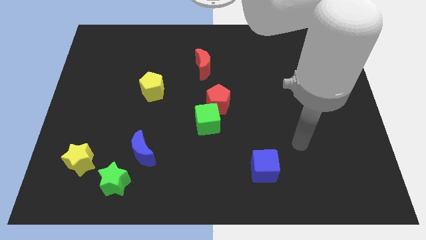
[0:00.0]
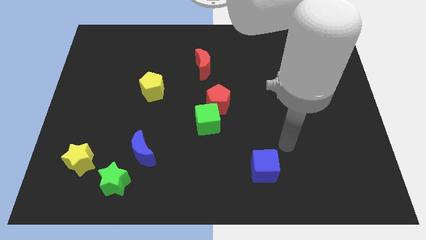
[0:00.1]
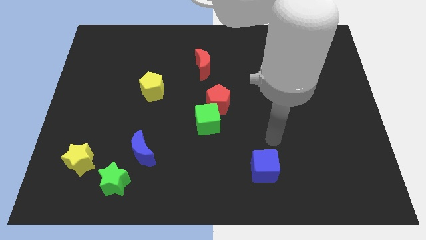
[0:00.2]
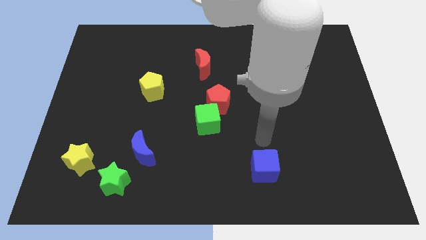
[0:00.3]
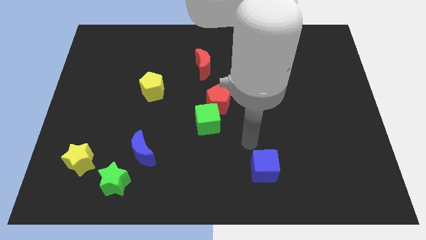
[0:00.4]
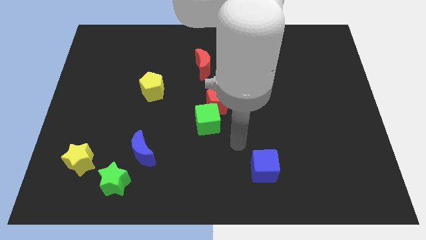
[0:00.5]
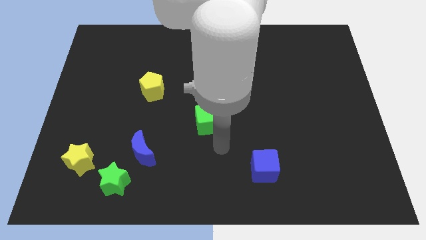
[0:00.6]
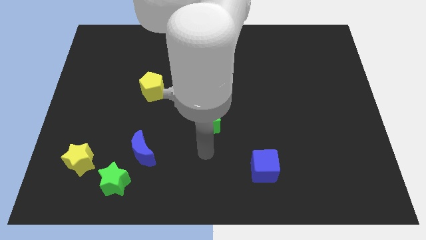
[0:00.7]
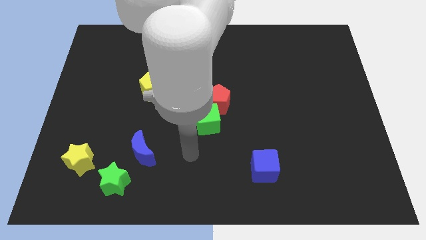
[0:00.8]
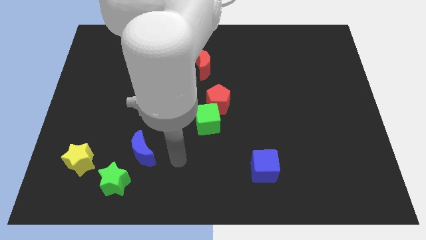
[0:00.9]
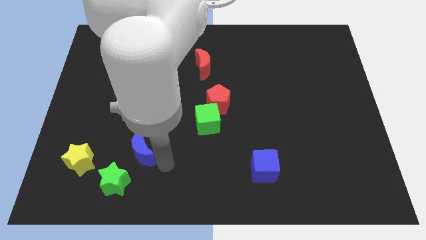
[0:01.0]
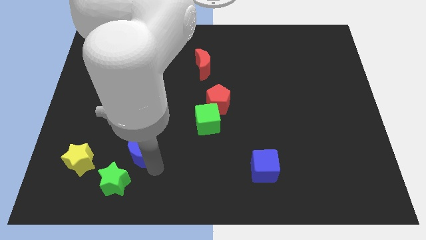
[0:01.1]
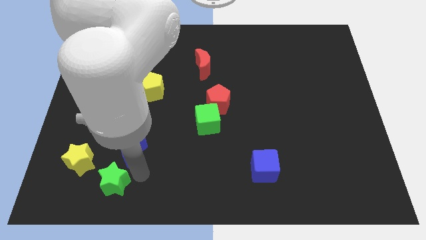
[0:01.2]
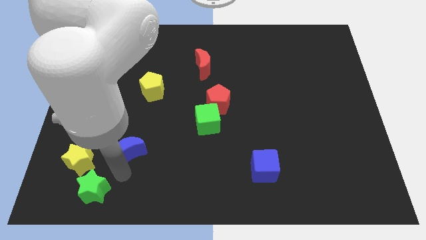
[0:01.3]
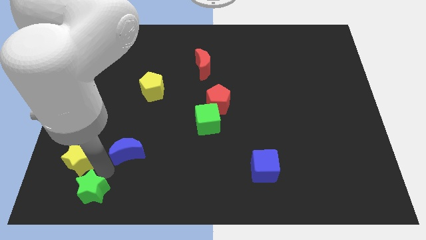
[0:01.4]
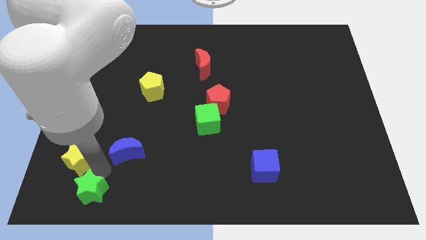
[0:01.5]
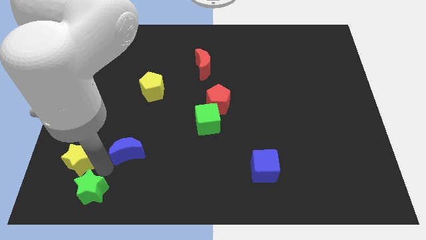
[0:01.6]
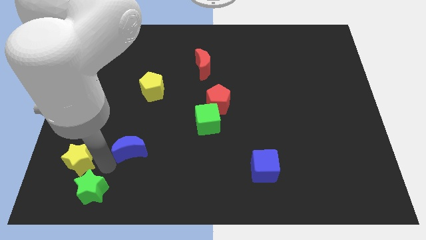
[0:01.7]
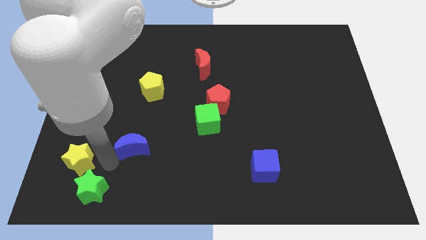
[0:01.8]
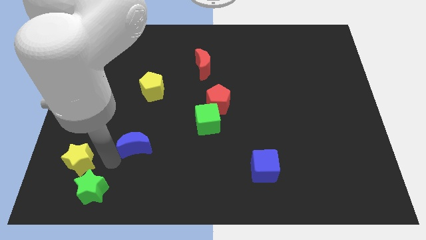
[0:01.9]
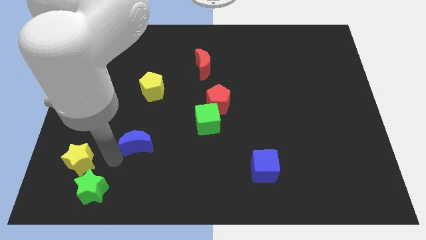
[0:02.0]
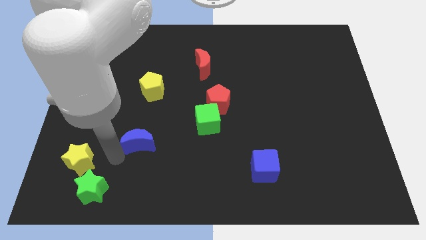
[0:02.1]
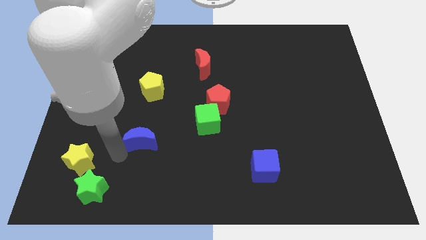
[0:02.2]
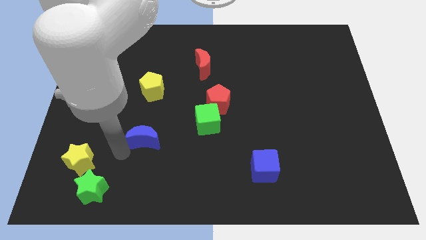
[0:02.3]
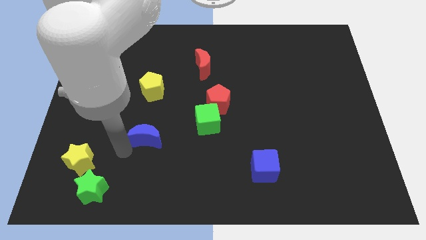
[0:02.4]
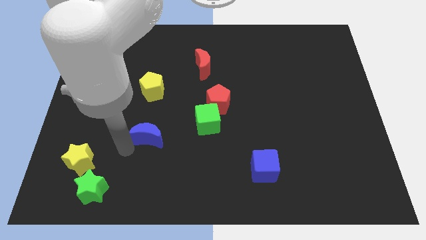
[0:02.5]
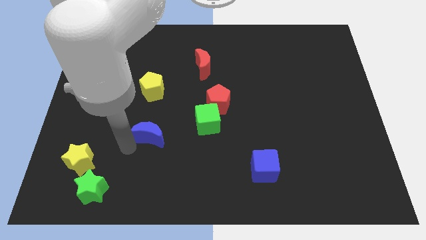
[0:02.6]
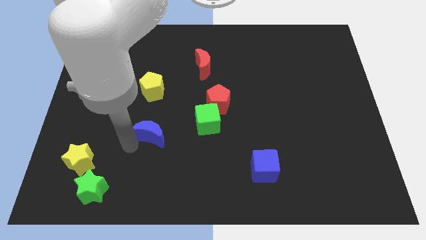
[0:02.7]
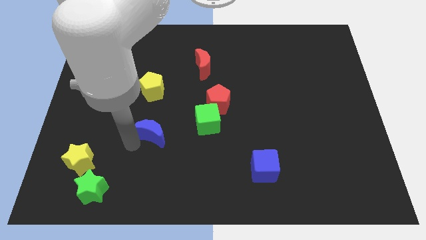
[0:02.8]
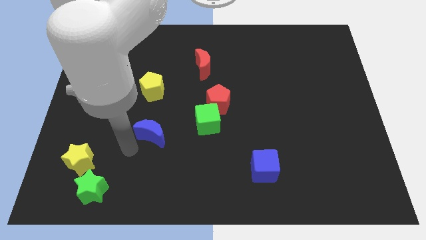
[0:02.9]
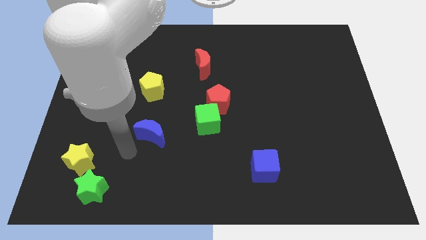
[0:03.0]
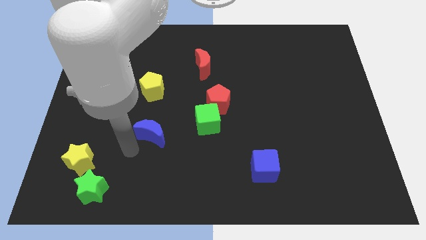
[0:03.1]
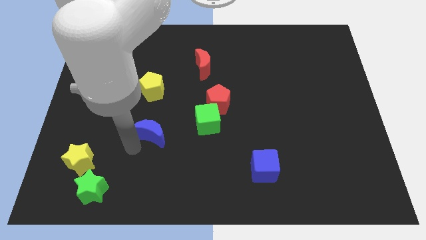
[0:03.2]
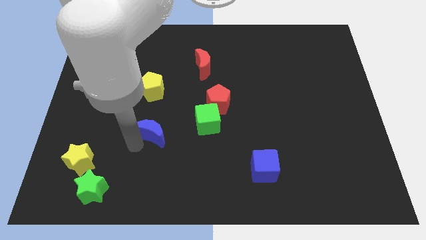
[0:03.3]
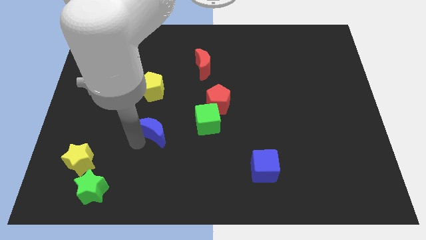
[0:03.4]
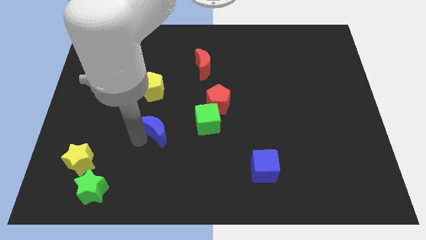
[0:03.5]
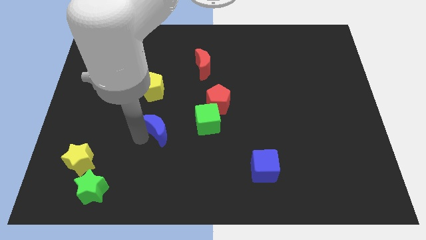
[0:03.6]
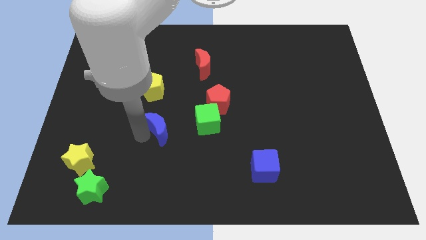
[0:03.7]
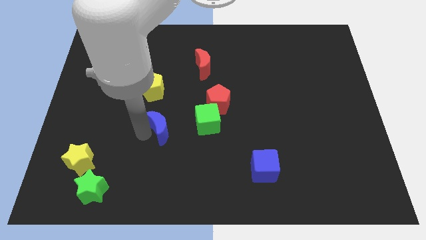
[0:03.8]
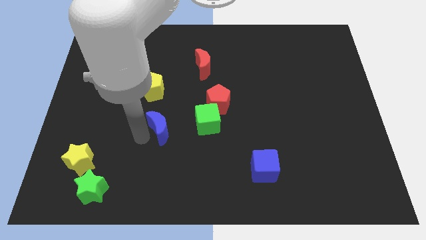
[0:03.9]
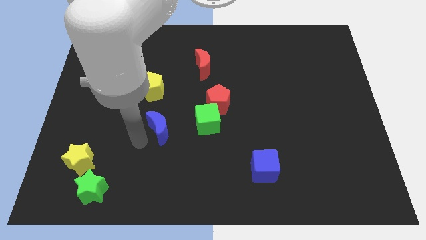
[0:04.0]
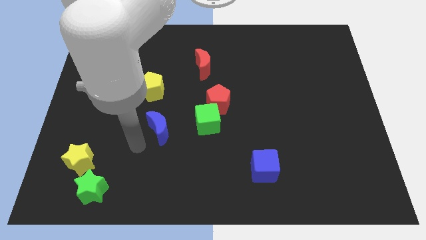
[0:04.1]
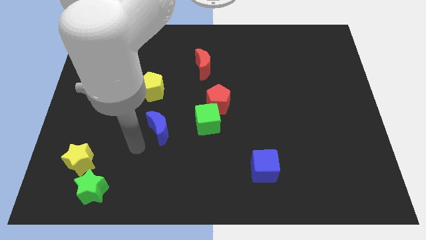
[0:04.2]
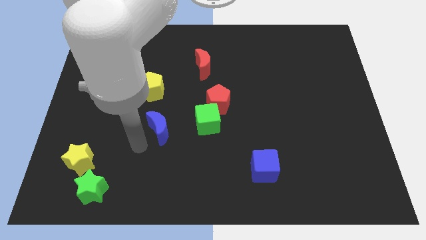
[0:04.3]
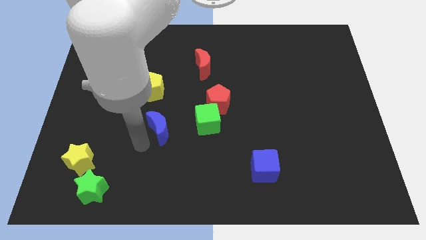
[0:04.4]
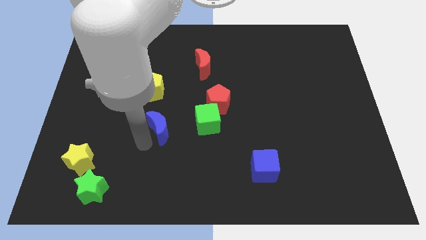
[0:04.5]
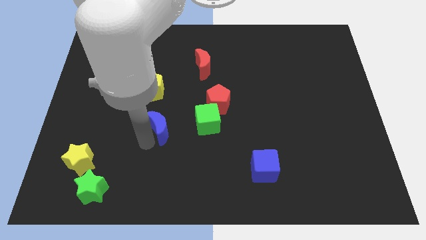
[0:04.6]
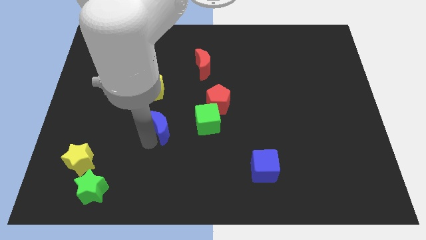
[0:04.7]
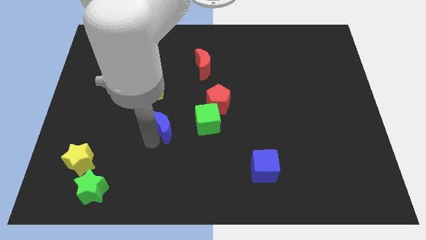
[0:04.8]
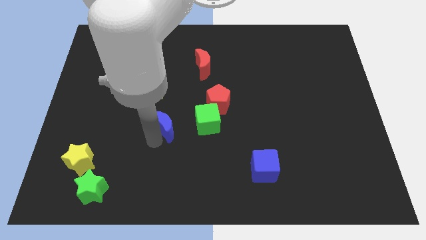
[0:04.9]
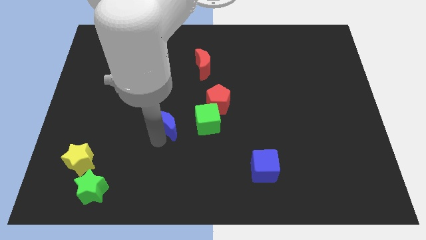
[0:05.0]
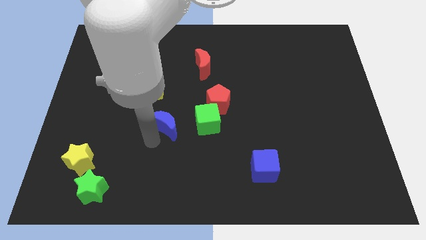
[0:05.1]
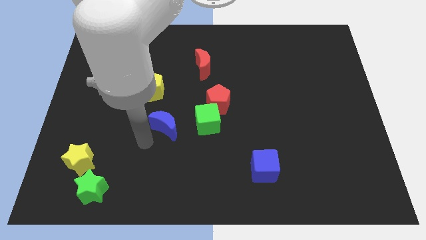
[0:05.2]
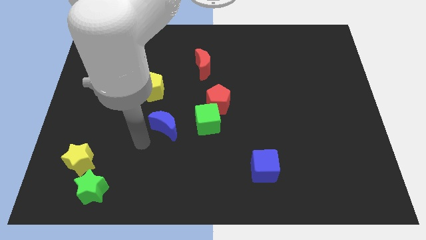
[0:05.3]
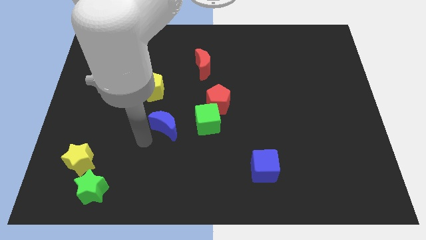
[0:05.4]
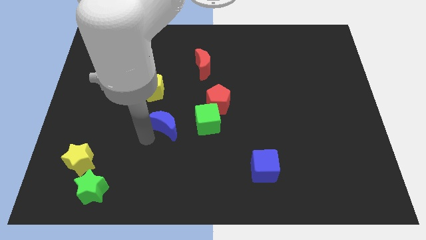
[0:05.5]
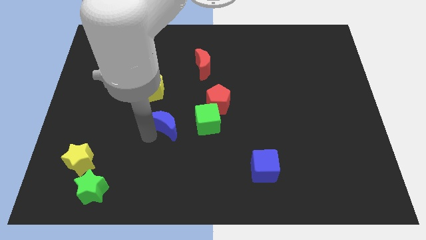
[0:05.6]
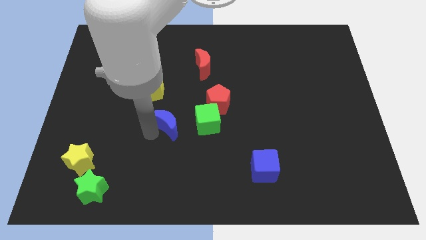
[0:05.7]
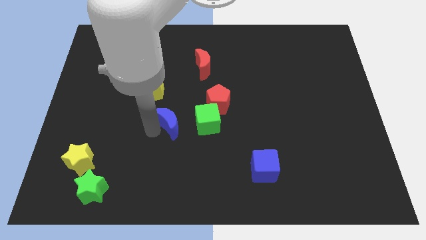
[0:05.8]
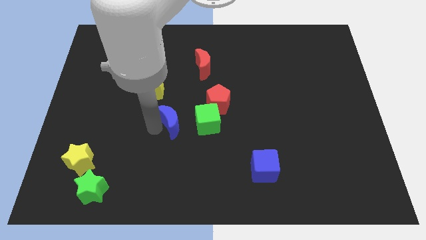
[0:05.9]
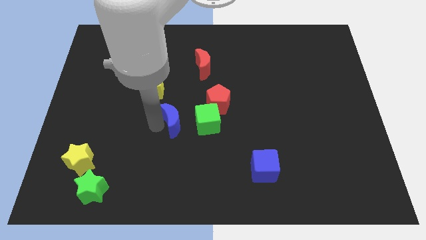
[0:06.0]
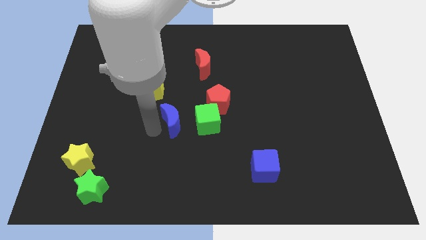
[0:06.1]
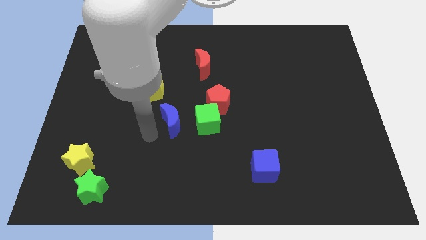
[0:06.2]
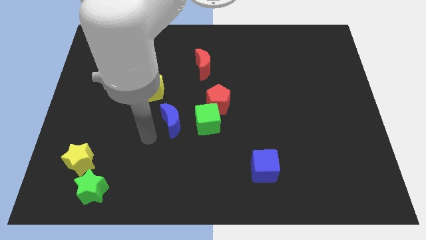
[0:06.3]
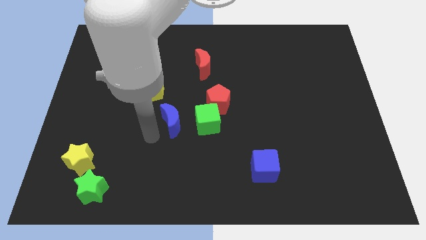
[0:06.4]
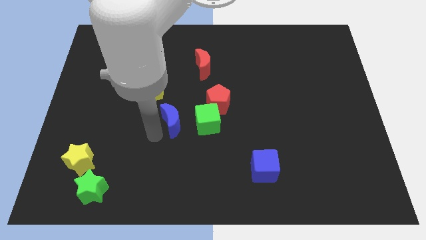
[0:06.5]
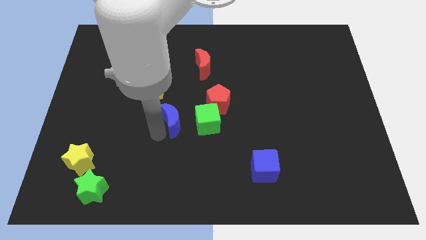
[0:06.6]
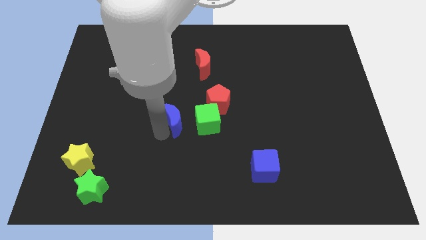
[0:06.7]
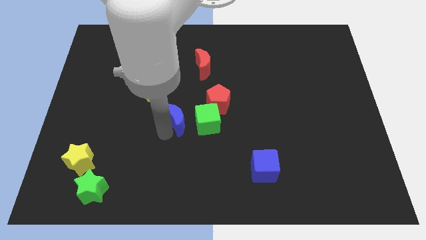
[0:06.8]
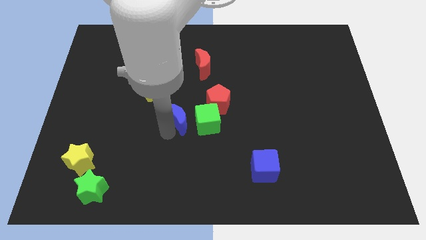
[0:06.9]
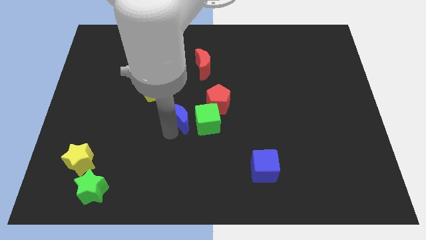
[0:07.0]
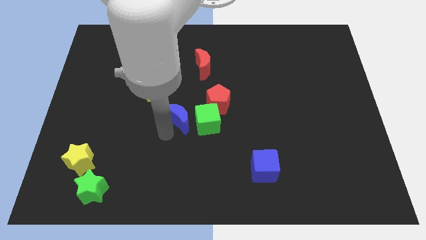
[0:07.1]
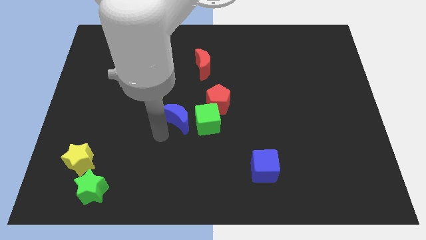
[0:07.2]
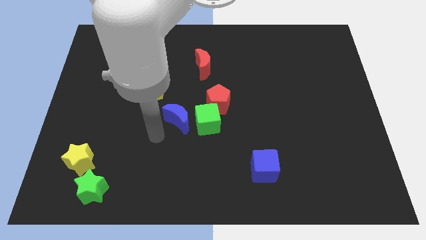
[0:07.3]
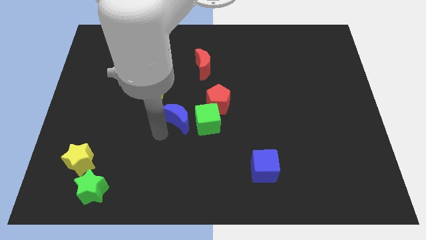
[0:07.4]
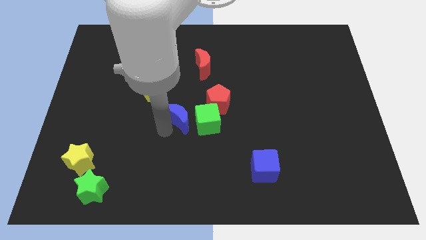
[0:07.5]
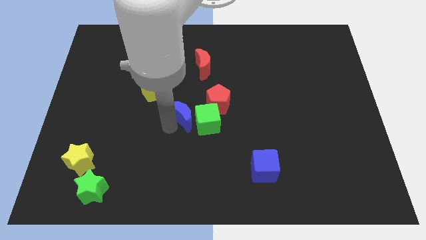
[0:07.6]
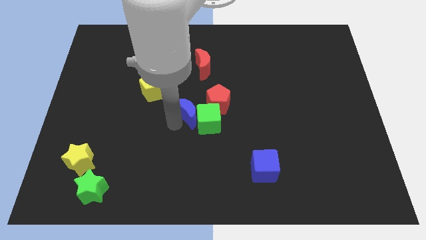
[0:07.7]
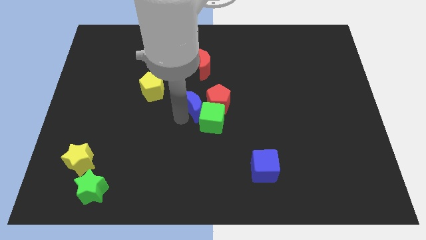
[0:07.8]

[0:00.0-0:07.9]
put the blue moon next to the red pentagon
